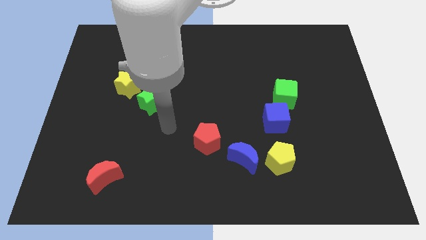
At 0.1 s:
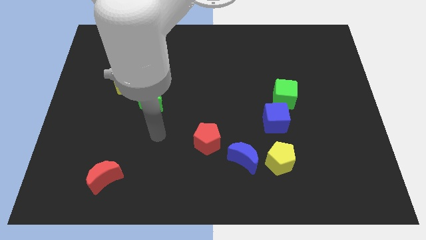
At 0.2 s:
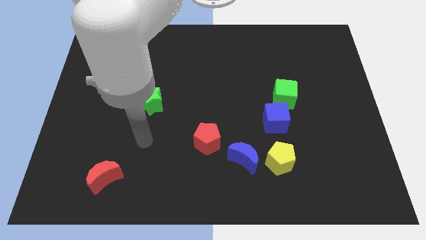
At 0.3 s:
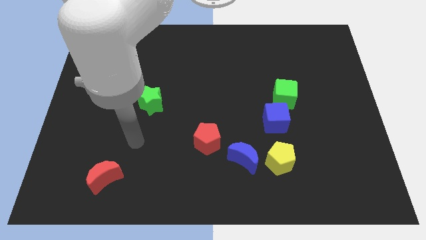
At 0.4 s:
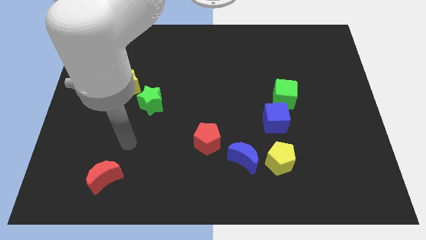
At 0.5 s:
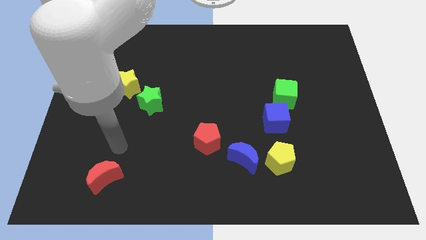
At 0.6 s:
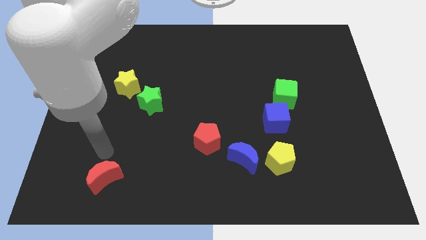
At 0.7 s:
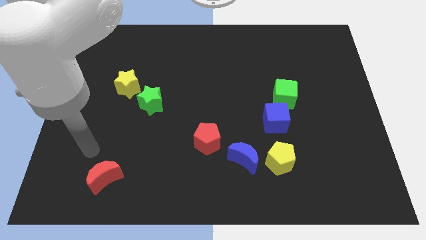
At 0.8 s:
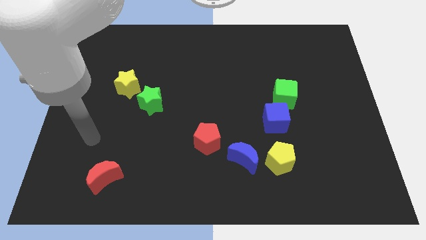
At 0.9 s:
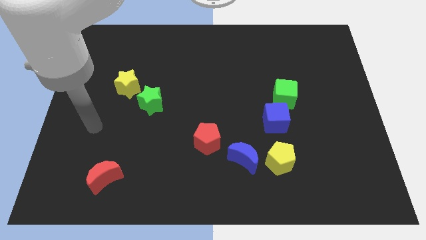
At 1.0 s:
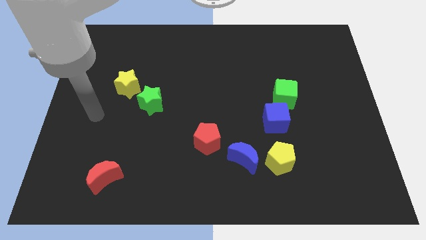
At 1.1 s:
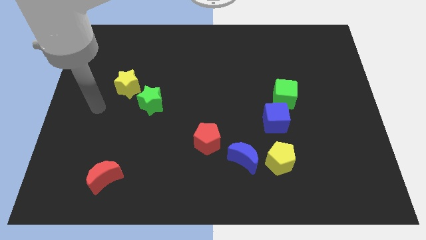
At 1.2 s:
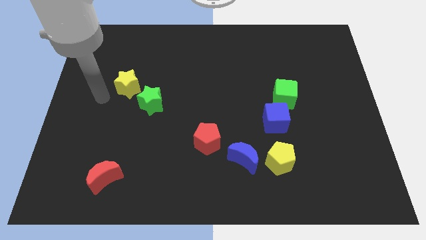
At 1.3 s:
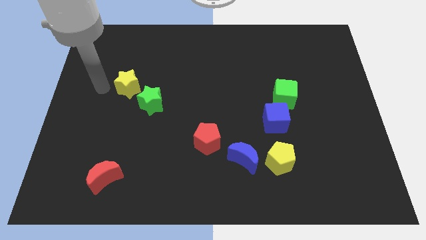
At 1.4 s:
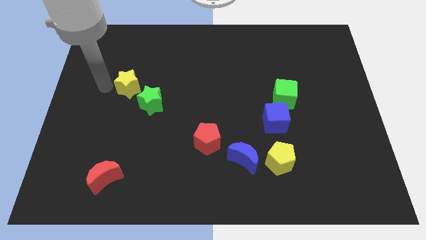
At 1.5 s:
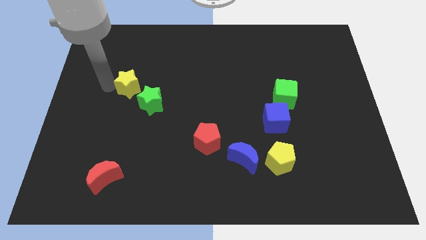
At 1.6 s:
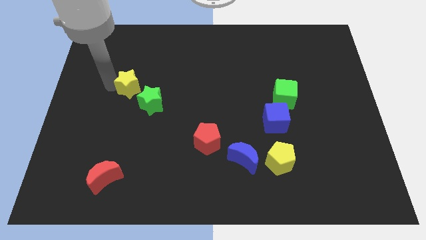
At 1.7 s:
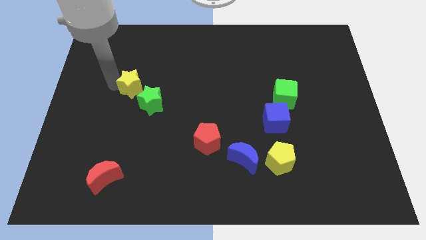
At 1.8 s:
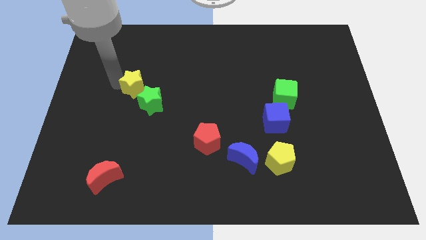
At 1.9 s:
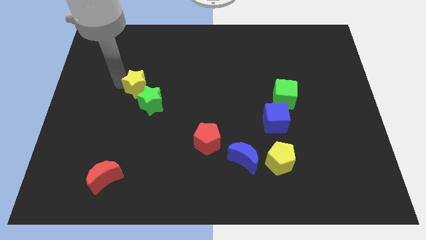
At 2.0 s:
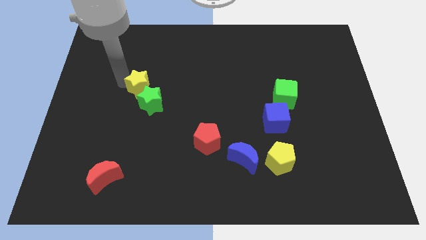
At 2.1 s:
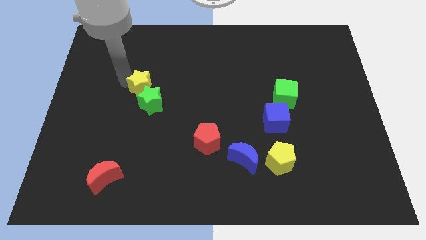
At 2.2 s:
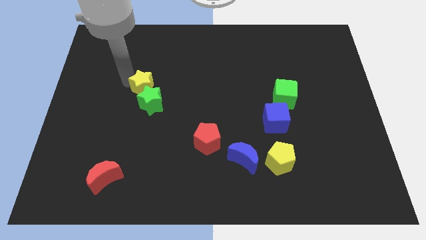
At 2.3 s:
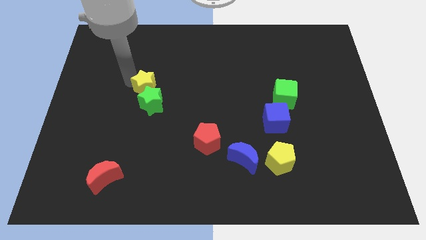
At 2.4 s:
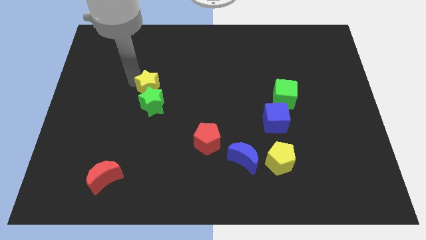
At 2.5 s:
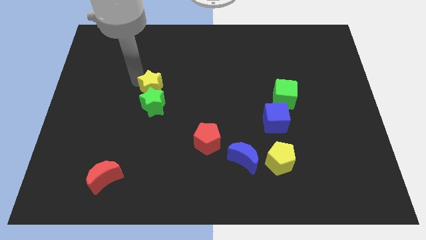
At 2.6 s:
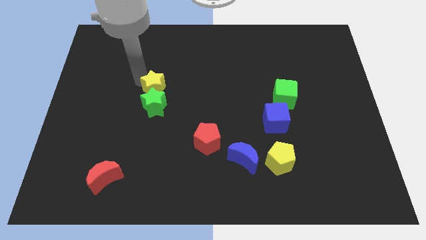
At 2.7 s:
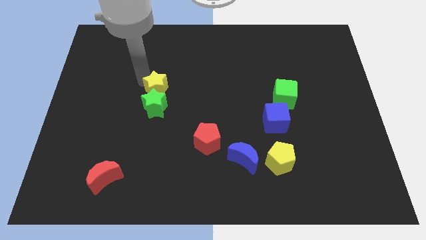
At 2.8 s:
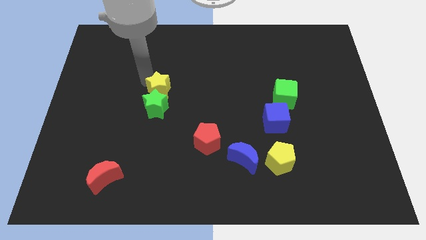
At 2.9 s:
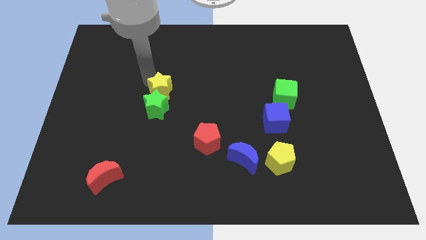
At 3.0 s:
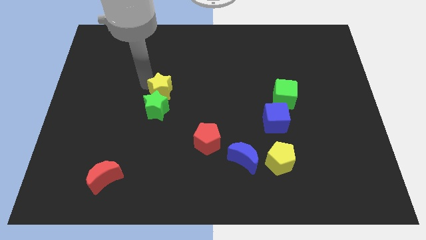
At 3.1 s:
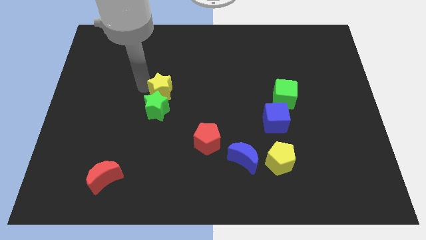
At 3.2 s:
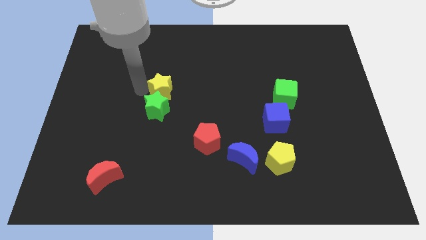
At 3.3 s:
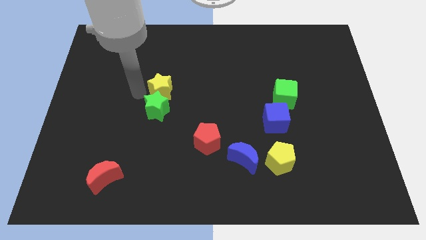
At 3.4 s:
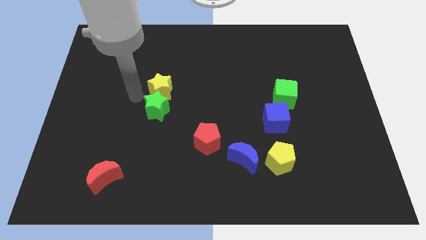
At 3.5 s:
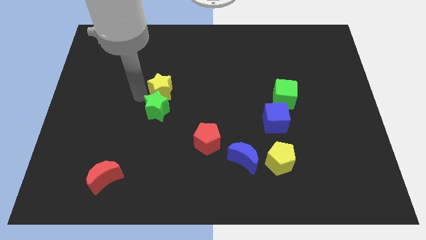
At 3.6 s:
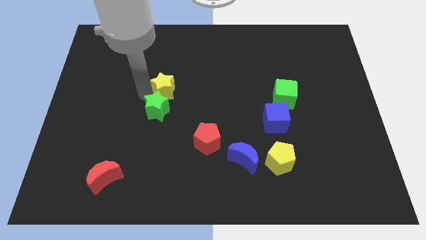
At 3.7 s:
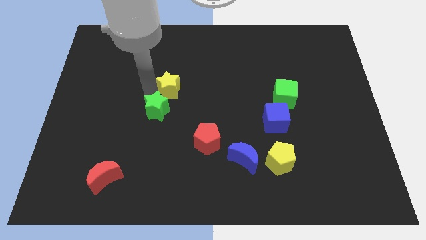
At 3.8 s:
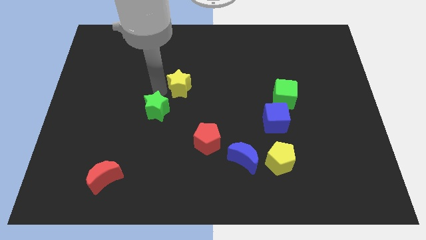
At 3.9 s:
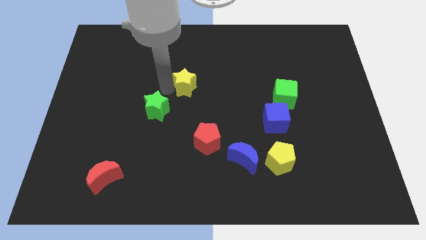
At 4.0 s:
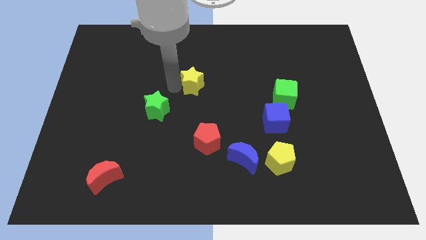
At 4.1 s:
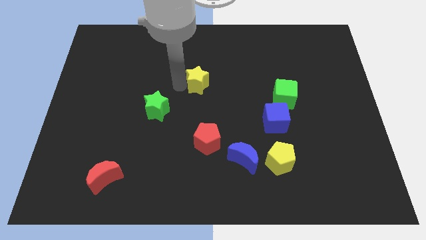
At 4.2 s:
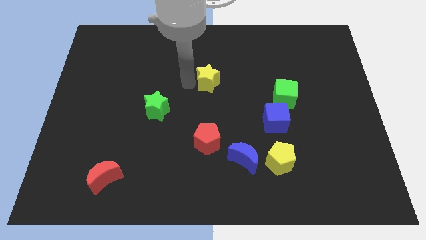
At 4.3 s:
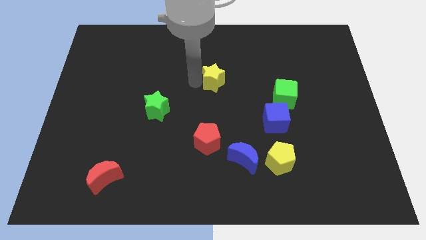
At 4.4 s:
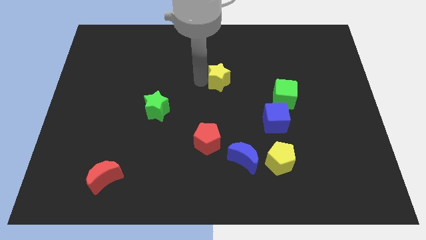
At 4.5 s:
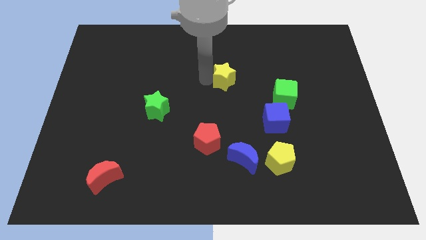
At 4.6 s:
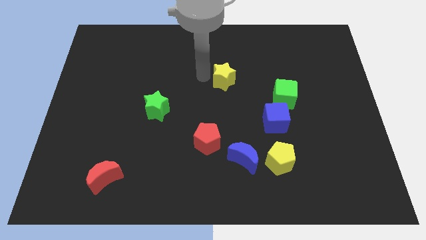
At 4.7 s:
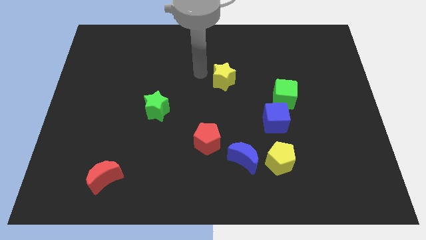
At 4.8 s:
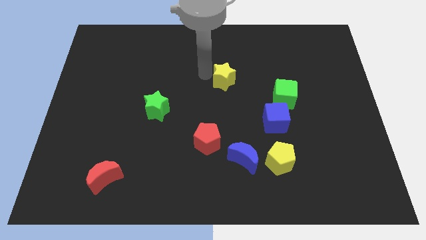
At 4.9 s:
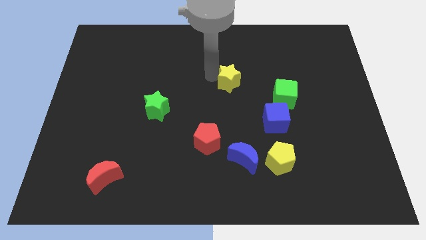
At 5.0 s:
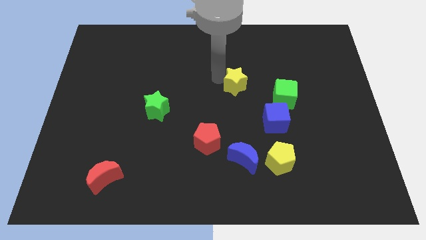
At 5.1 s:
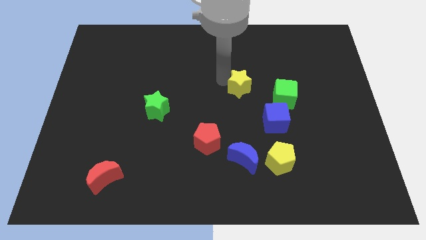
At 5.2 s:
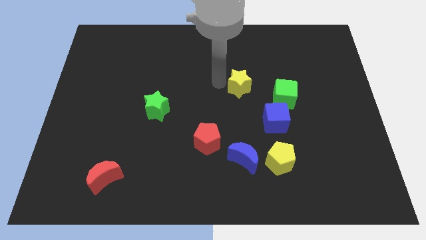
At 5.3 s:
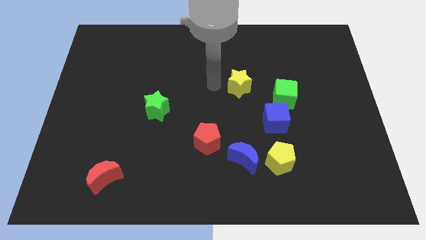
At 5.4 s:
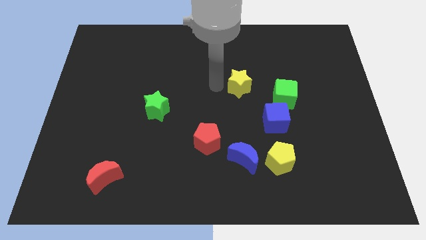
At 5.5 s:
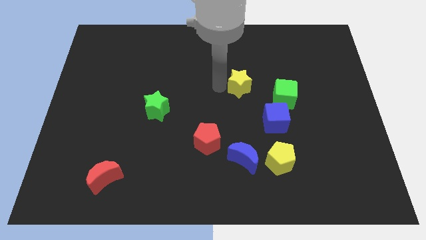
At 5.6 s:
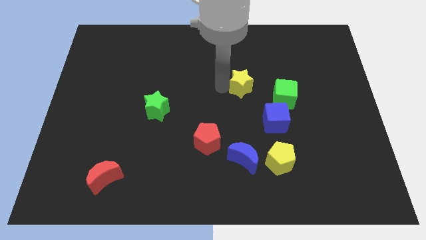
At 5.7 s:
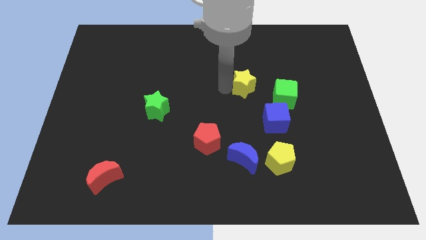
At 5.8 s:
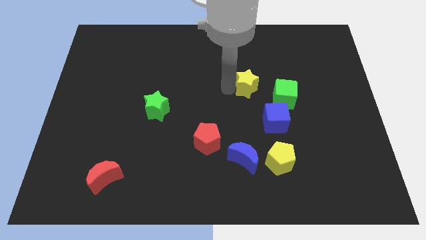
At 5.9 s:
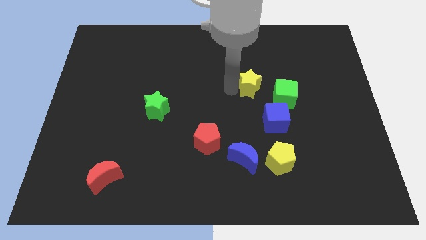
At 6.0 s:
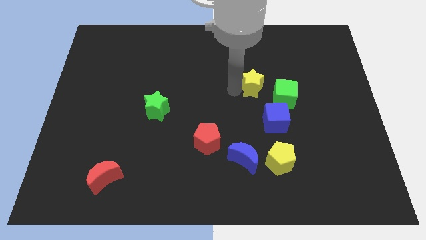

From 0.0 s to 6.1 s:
put the yellow star above the blue cube

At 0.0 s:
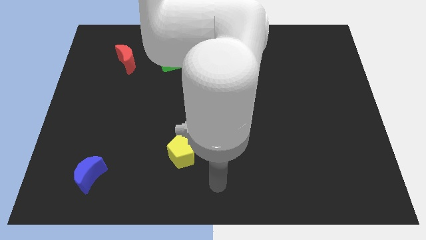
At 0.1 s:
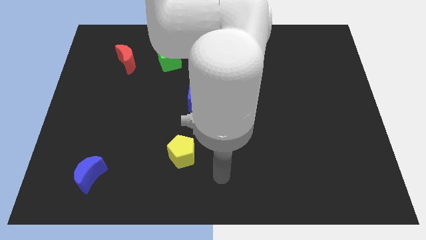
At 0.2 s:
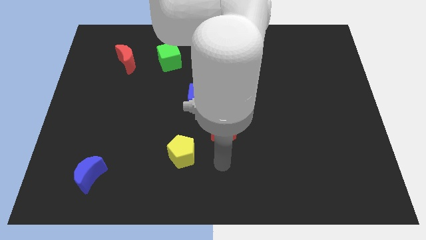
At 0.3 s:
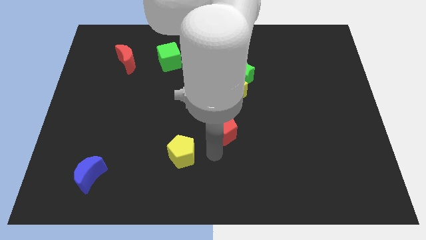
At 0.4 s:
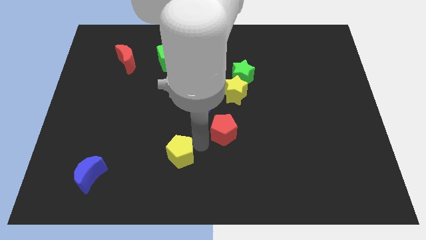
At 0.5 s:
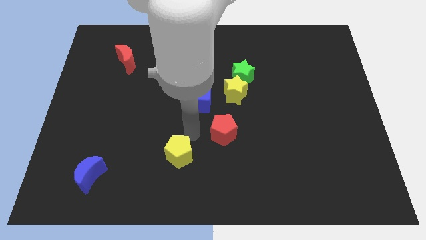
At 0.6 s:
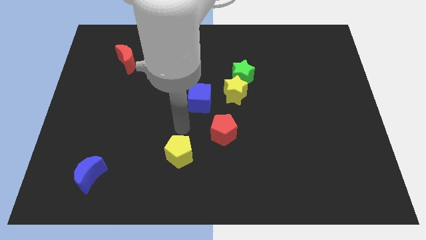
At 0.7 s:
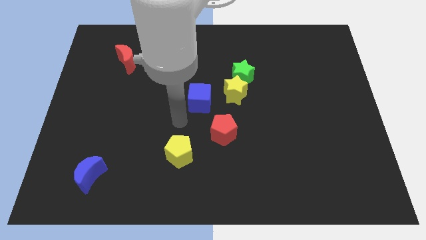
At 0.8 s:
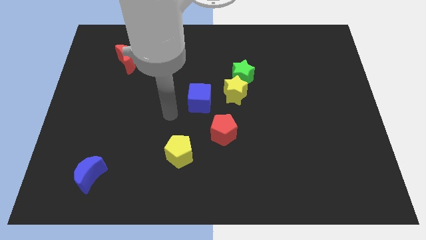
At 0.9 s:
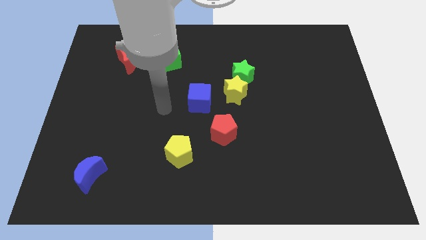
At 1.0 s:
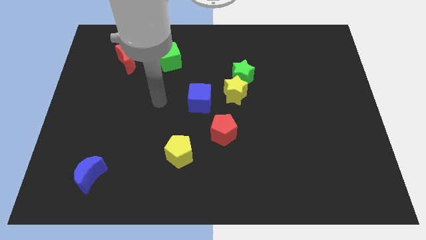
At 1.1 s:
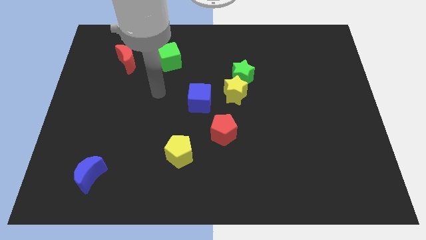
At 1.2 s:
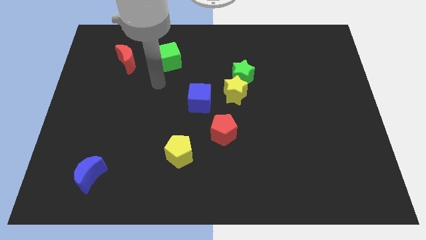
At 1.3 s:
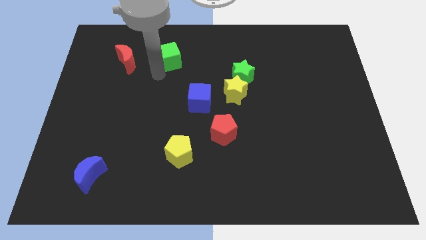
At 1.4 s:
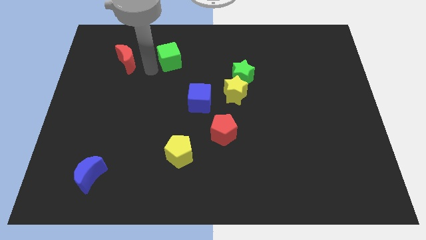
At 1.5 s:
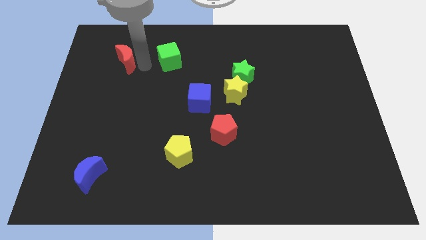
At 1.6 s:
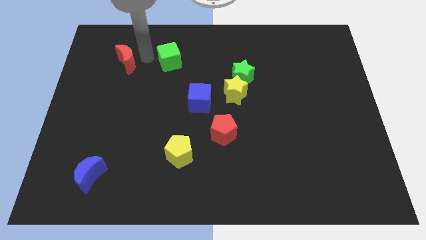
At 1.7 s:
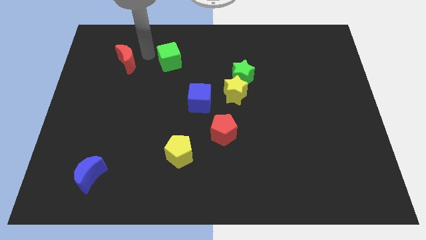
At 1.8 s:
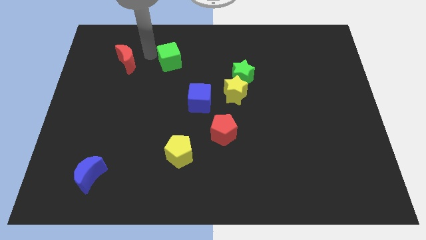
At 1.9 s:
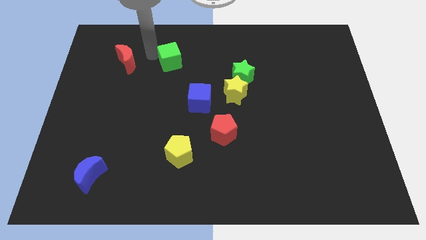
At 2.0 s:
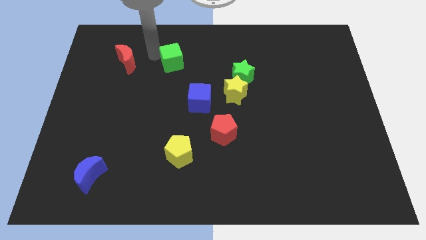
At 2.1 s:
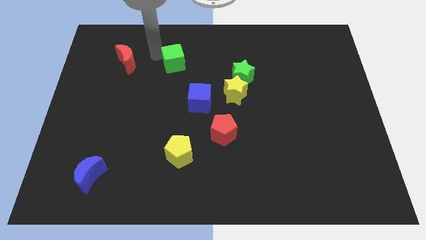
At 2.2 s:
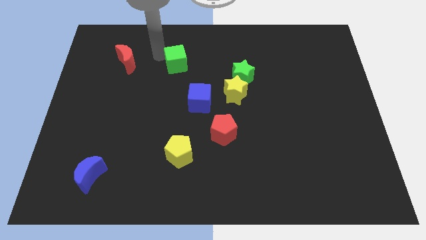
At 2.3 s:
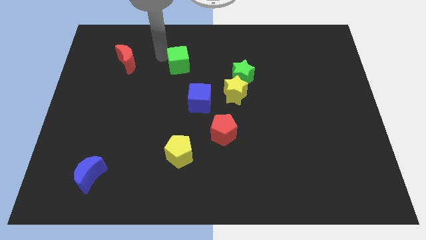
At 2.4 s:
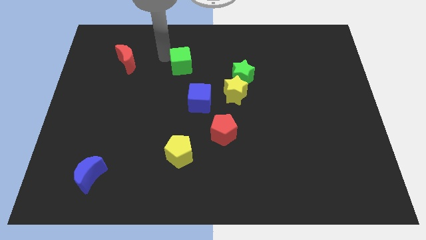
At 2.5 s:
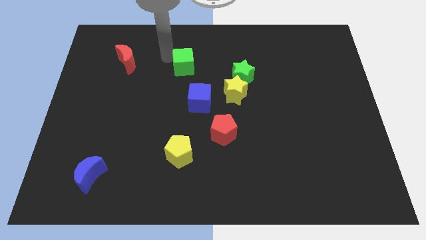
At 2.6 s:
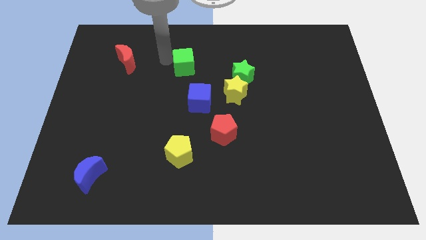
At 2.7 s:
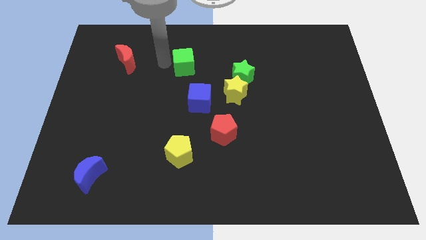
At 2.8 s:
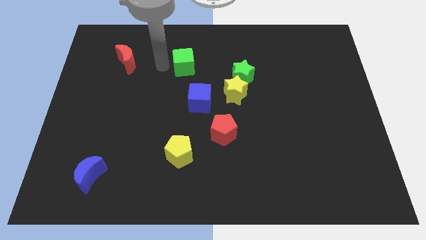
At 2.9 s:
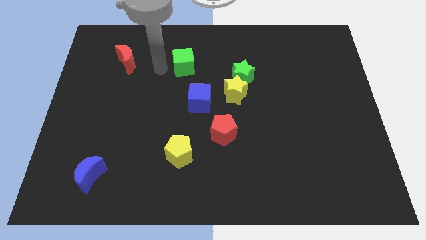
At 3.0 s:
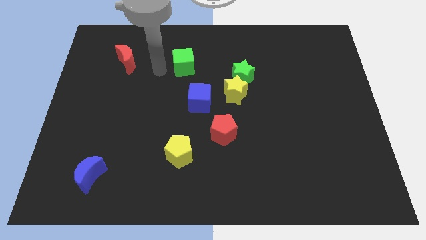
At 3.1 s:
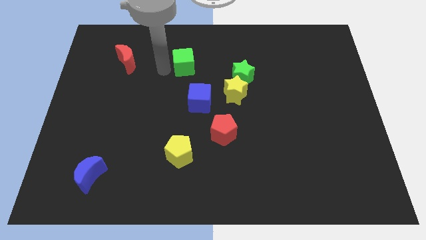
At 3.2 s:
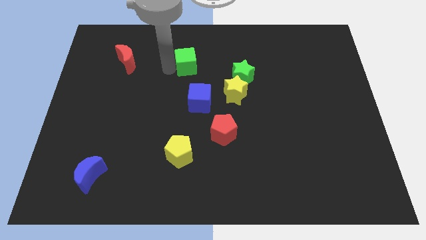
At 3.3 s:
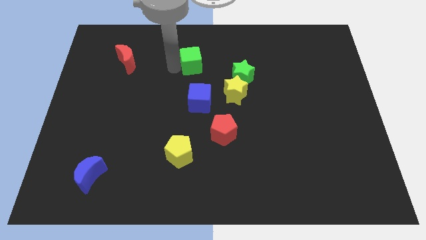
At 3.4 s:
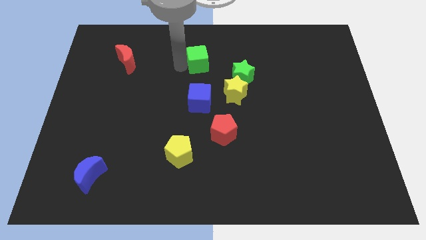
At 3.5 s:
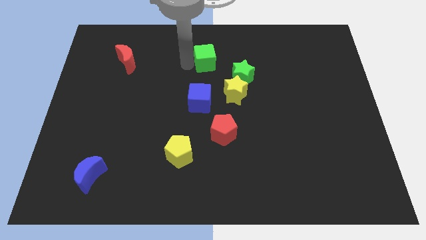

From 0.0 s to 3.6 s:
move the green cube to the top left side of the green star
